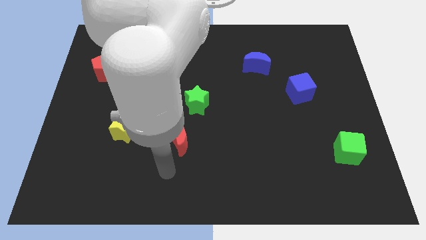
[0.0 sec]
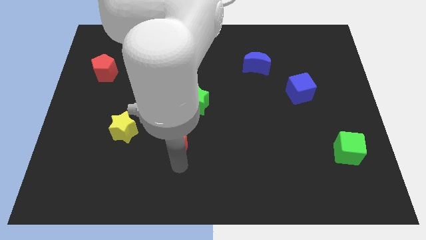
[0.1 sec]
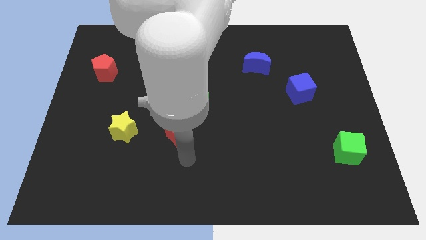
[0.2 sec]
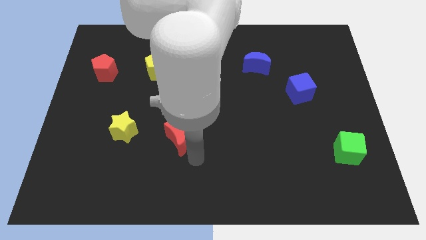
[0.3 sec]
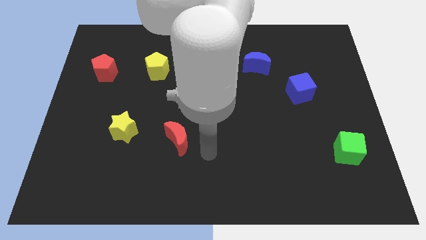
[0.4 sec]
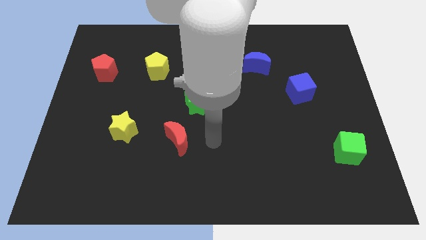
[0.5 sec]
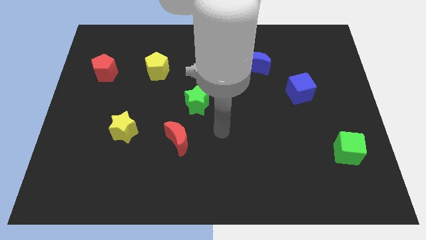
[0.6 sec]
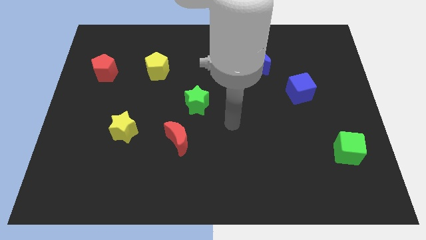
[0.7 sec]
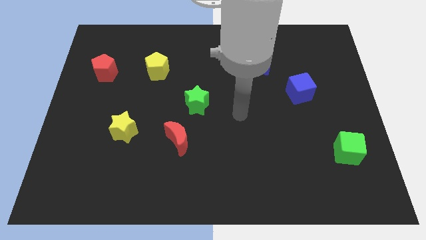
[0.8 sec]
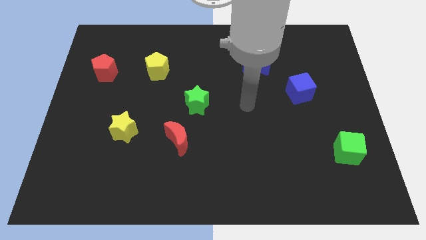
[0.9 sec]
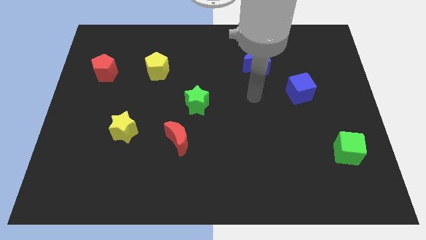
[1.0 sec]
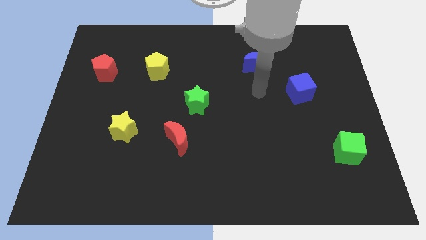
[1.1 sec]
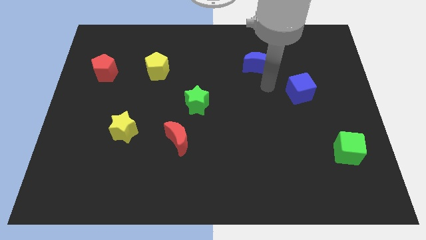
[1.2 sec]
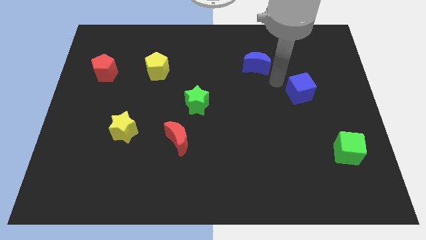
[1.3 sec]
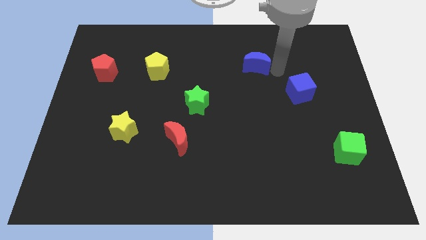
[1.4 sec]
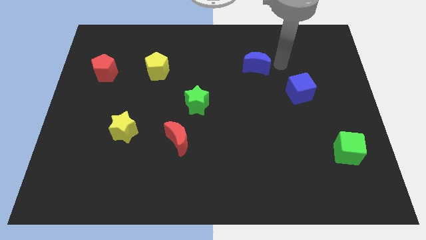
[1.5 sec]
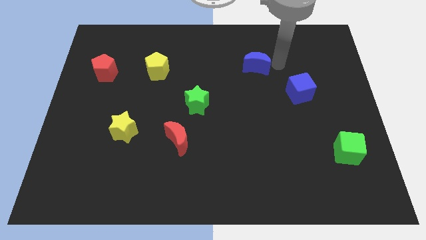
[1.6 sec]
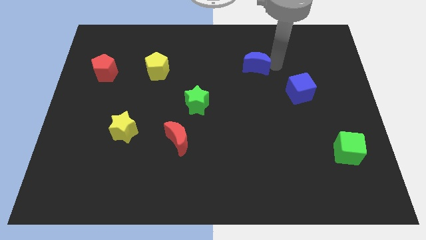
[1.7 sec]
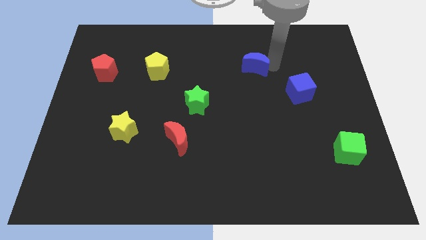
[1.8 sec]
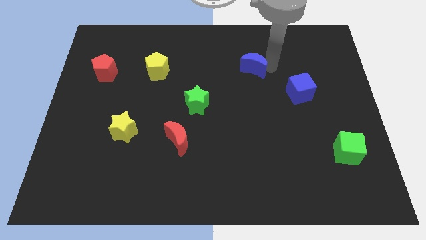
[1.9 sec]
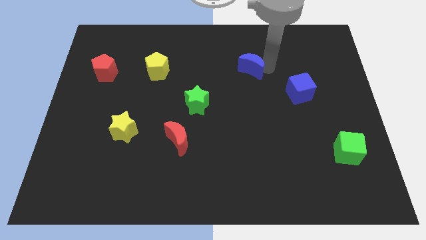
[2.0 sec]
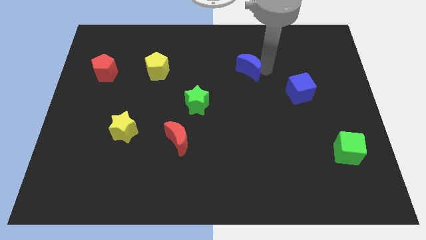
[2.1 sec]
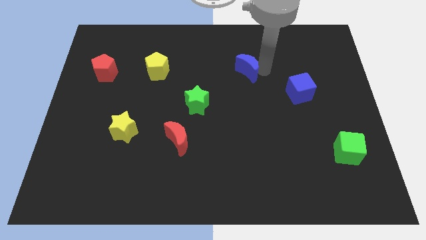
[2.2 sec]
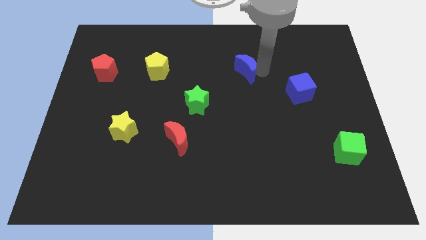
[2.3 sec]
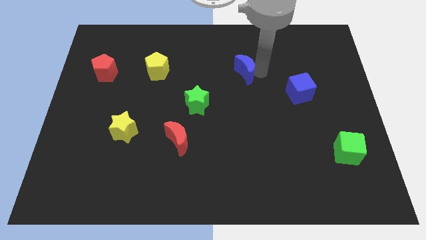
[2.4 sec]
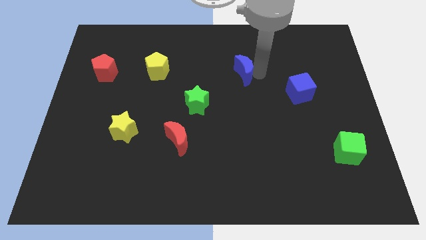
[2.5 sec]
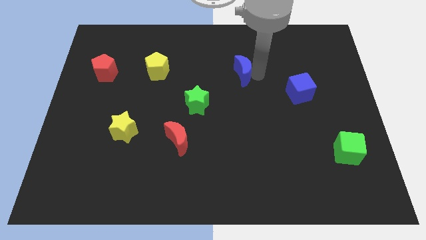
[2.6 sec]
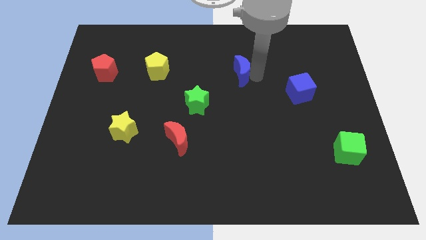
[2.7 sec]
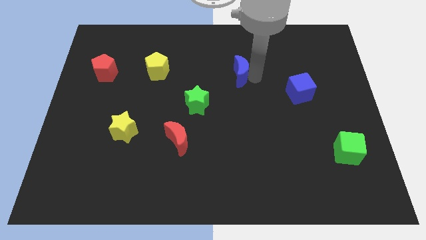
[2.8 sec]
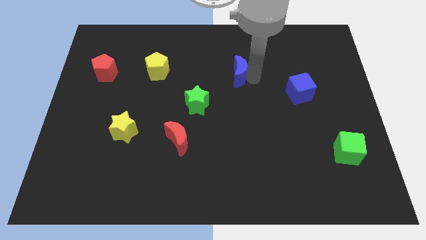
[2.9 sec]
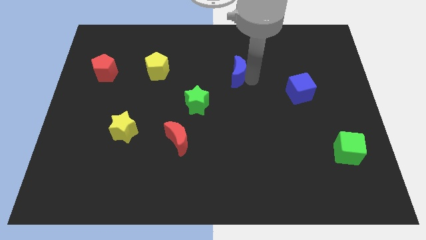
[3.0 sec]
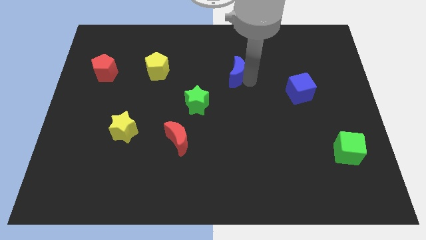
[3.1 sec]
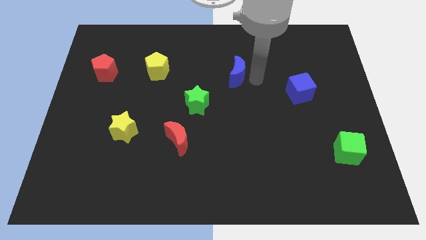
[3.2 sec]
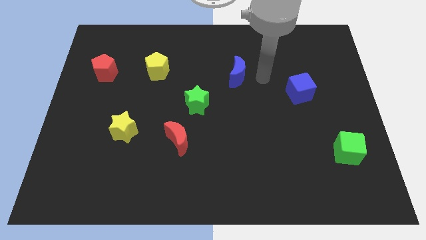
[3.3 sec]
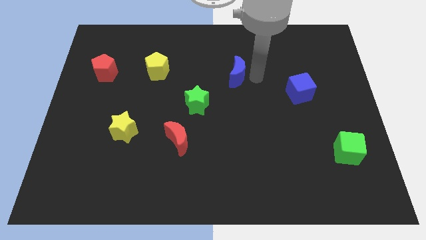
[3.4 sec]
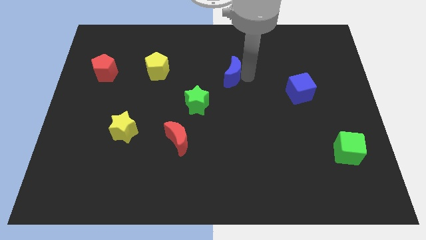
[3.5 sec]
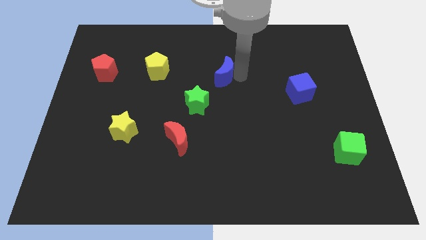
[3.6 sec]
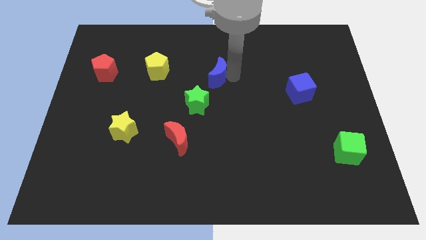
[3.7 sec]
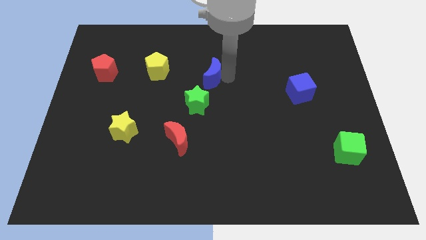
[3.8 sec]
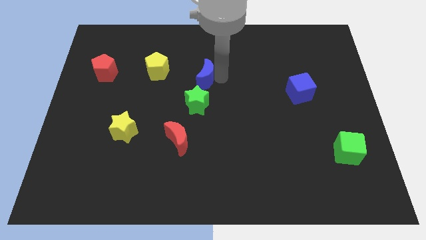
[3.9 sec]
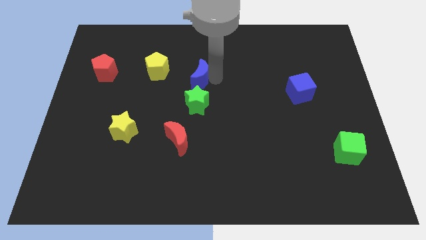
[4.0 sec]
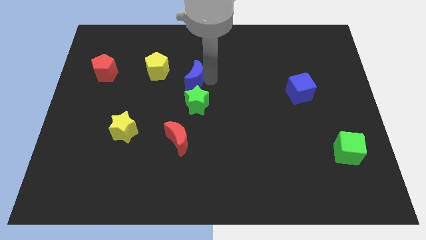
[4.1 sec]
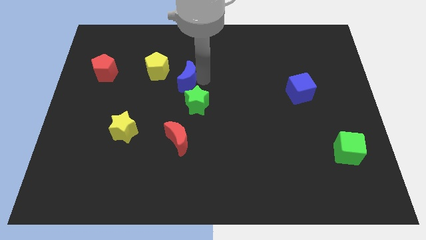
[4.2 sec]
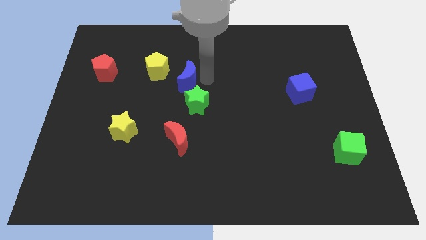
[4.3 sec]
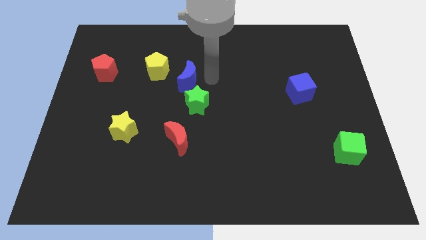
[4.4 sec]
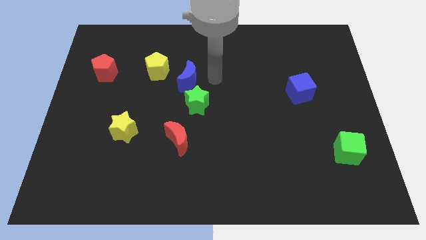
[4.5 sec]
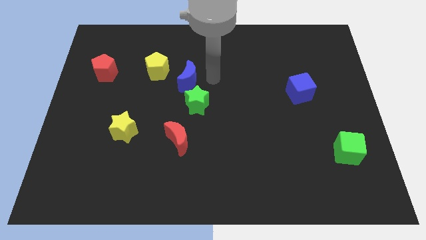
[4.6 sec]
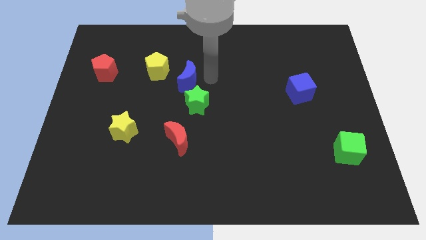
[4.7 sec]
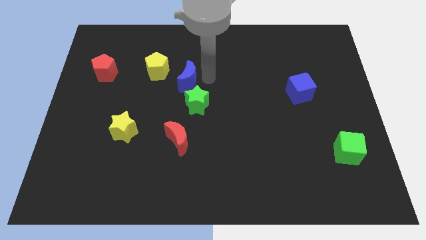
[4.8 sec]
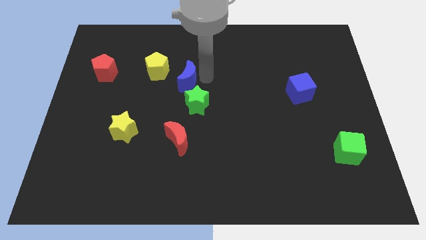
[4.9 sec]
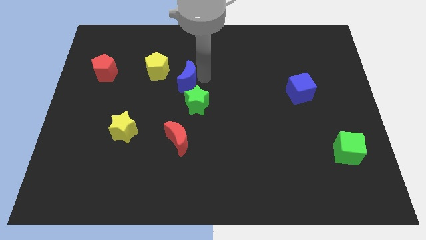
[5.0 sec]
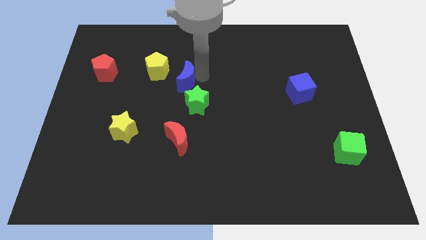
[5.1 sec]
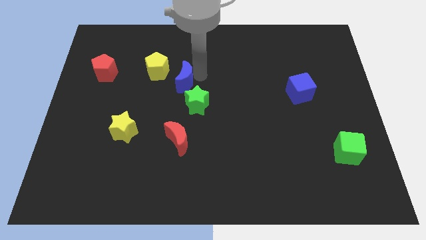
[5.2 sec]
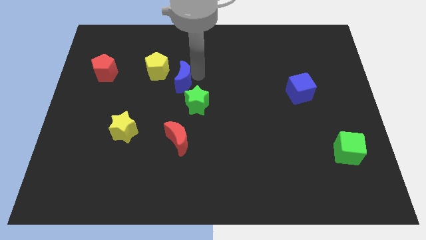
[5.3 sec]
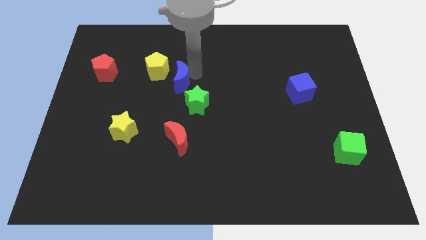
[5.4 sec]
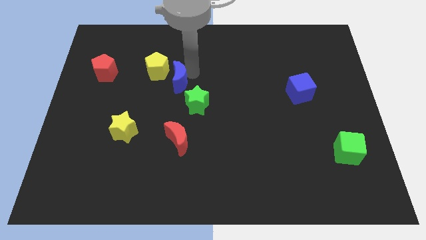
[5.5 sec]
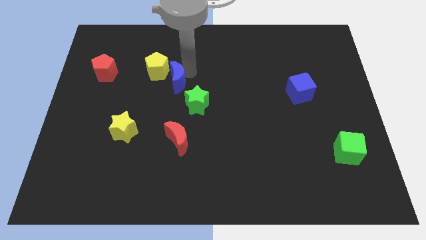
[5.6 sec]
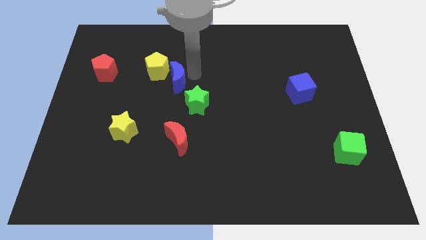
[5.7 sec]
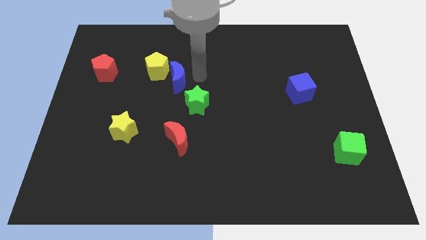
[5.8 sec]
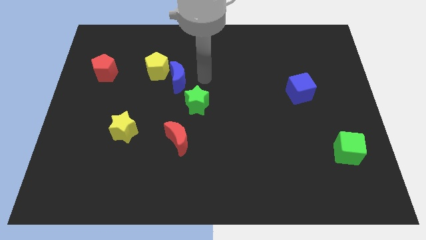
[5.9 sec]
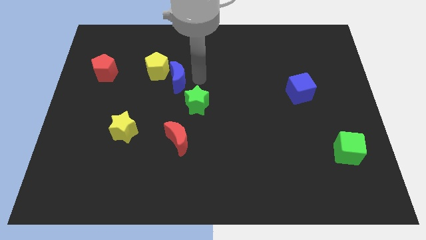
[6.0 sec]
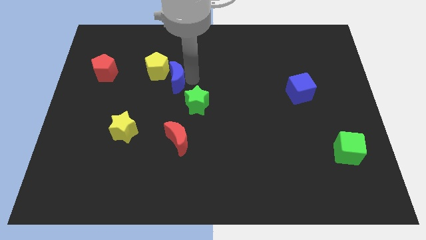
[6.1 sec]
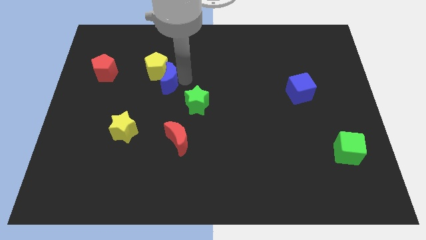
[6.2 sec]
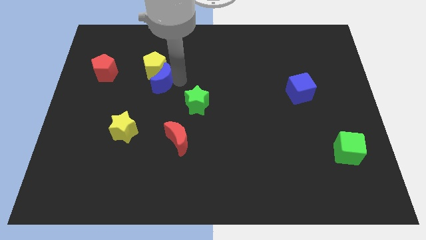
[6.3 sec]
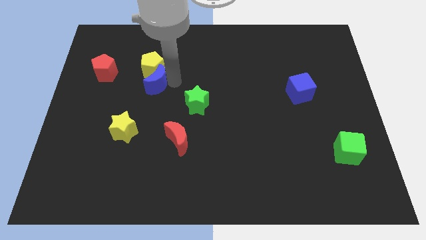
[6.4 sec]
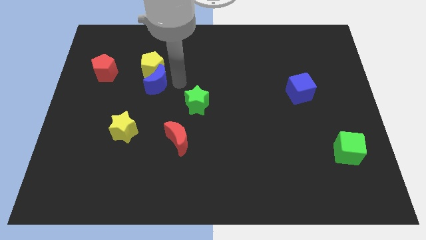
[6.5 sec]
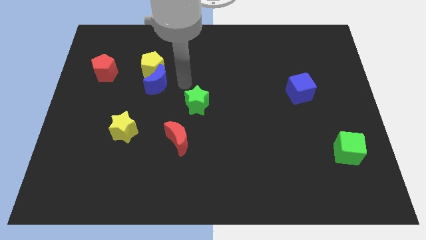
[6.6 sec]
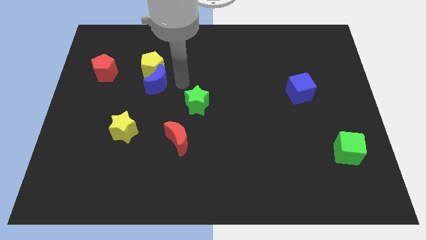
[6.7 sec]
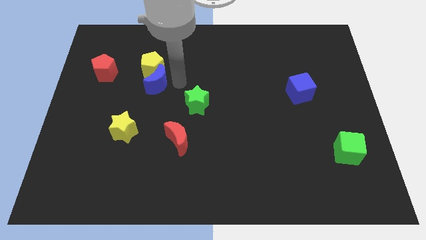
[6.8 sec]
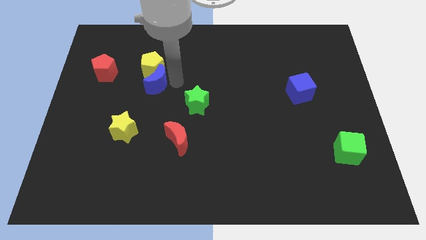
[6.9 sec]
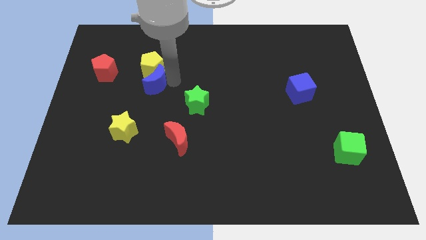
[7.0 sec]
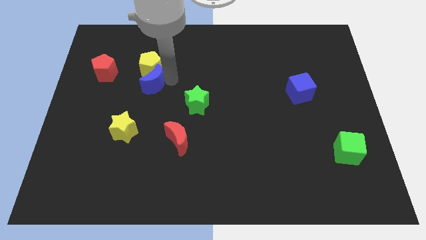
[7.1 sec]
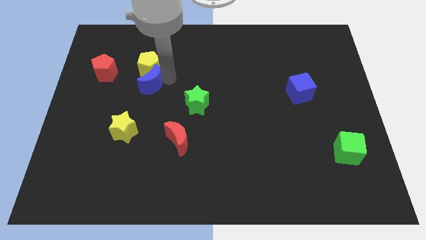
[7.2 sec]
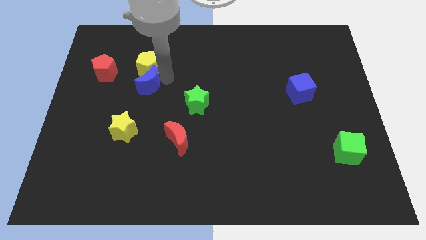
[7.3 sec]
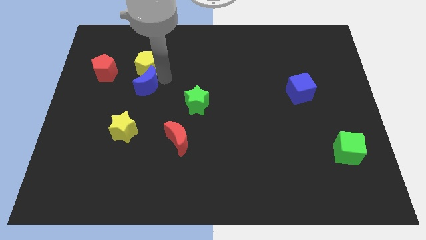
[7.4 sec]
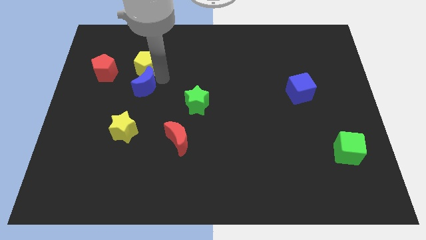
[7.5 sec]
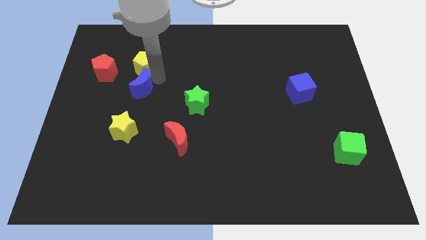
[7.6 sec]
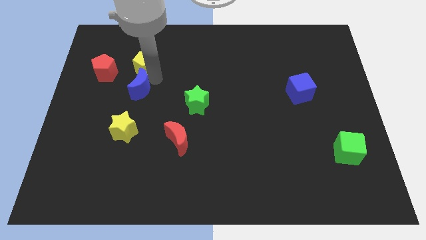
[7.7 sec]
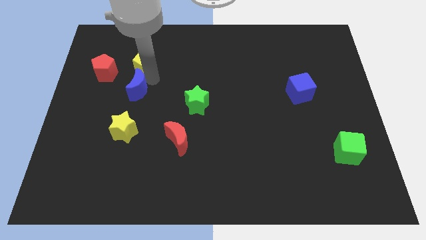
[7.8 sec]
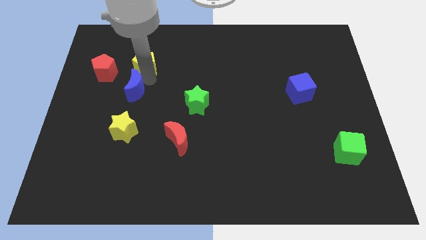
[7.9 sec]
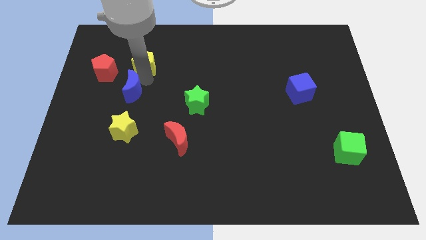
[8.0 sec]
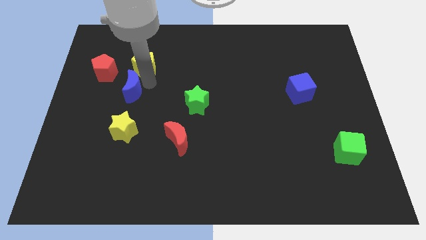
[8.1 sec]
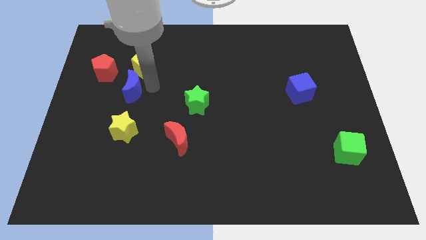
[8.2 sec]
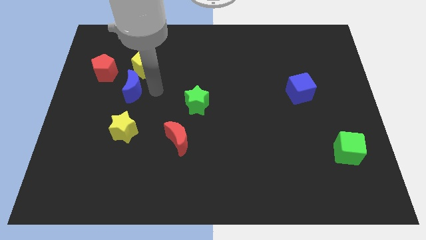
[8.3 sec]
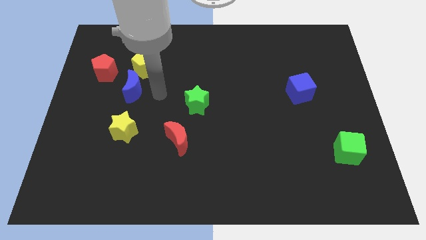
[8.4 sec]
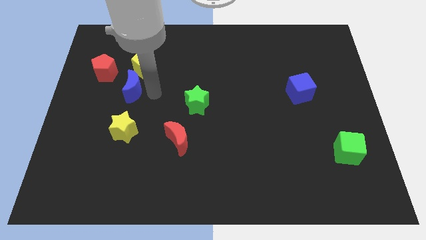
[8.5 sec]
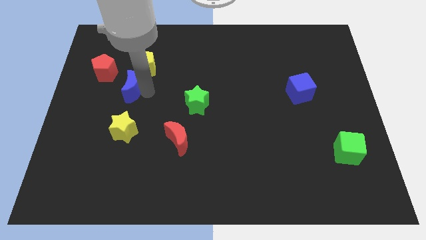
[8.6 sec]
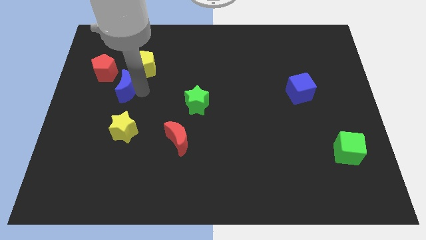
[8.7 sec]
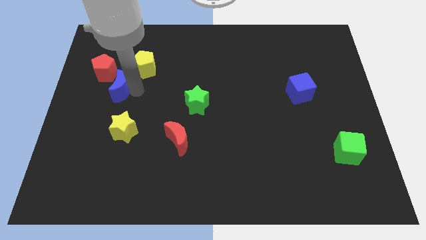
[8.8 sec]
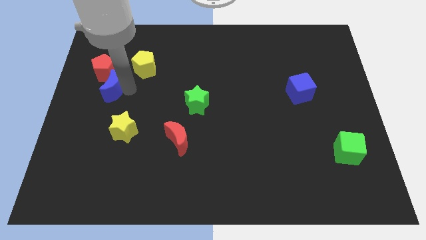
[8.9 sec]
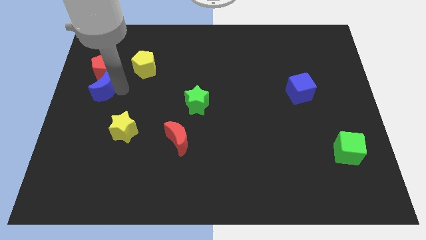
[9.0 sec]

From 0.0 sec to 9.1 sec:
push the blue moon to the left side
